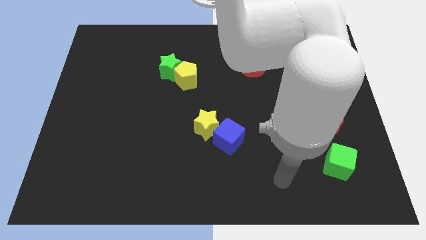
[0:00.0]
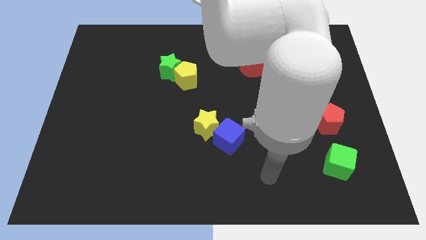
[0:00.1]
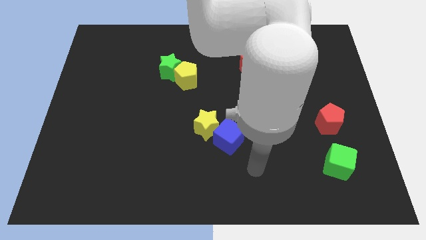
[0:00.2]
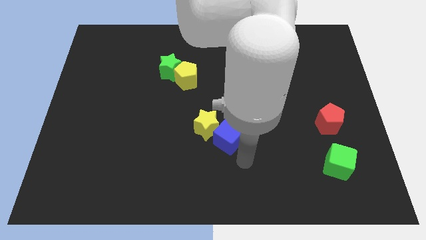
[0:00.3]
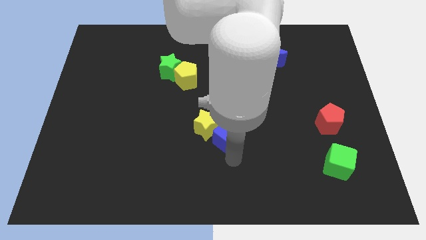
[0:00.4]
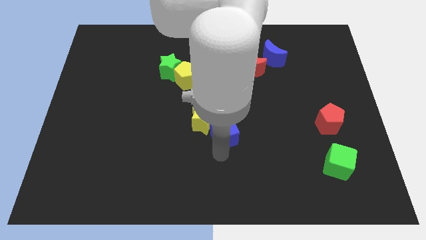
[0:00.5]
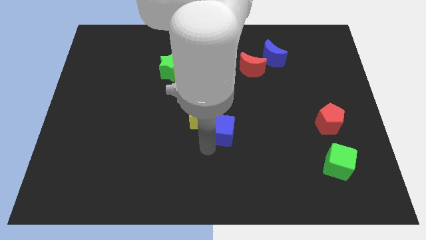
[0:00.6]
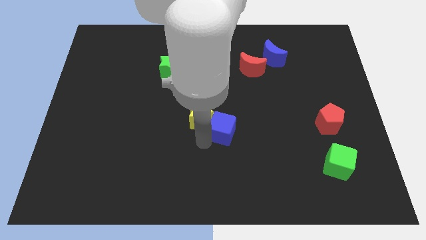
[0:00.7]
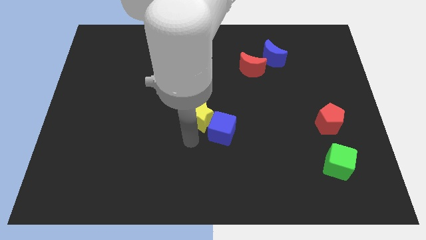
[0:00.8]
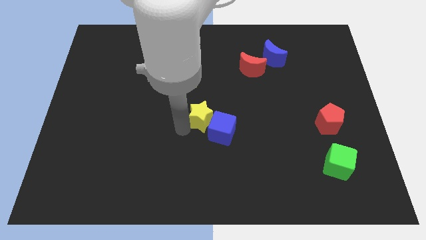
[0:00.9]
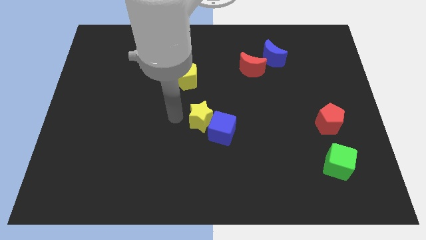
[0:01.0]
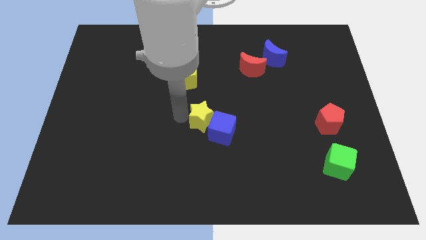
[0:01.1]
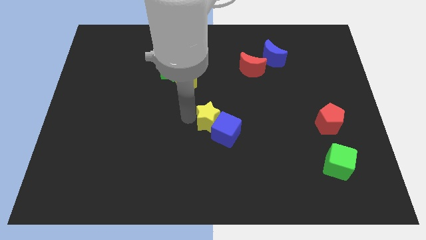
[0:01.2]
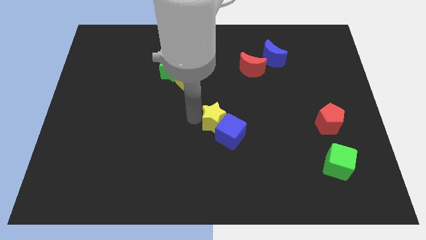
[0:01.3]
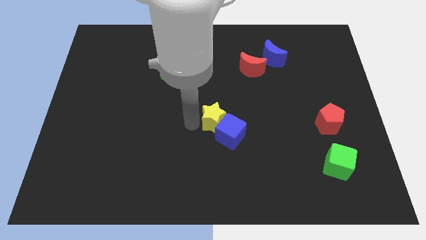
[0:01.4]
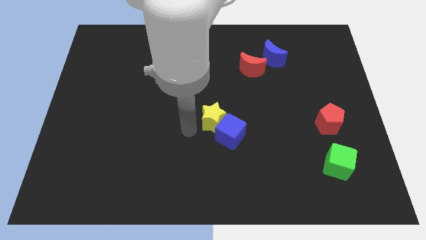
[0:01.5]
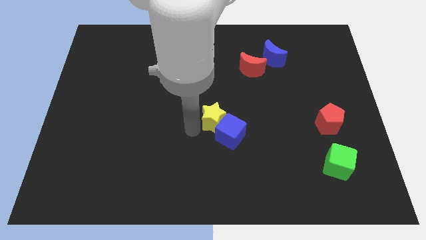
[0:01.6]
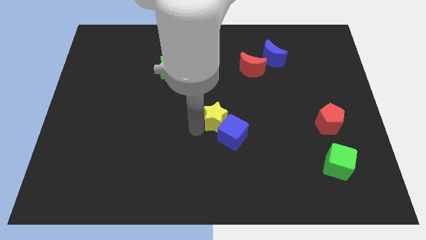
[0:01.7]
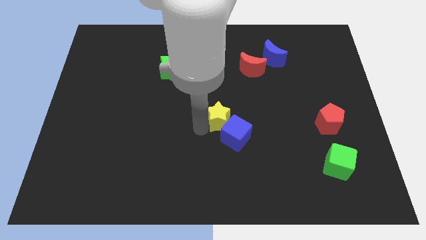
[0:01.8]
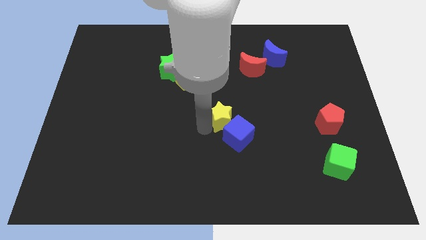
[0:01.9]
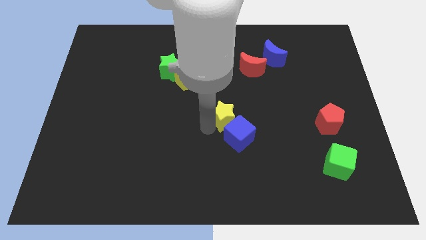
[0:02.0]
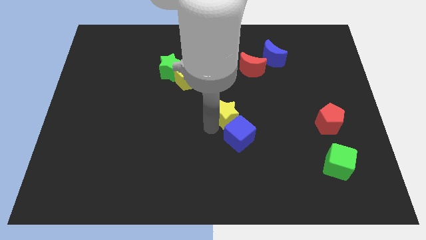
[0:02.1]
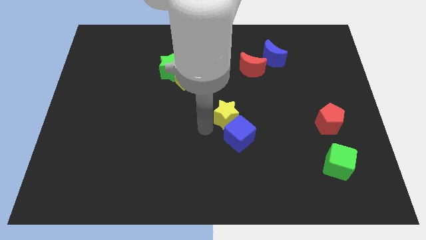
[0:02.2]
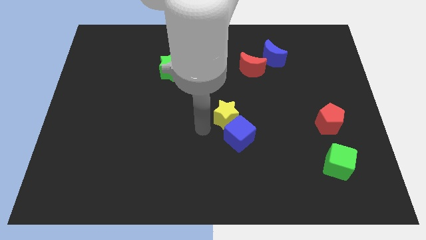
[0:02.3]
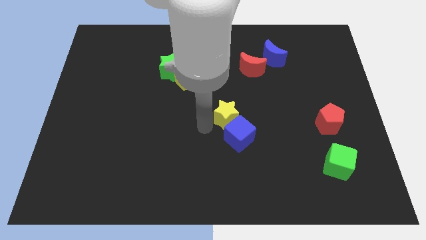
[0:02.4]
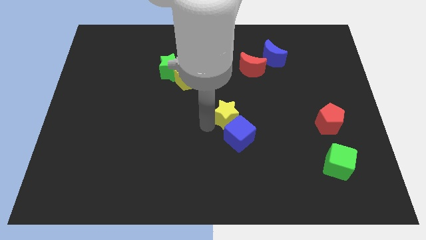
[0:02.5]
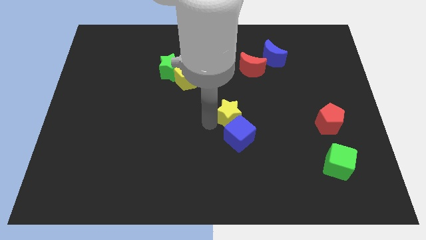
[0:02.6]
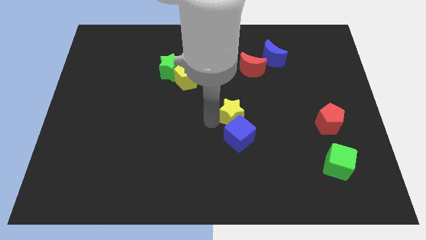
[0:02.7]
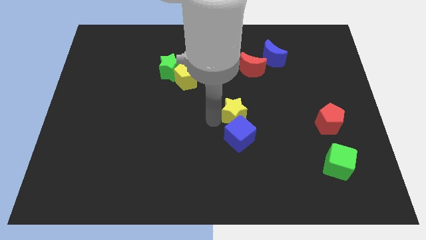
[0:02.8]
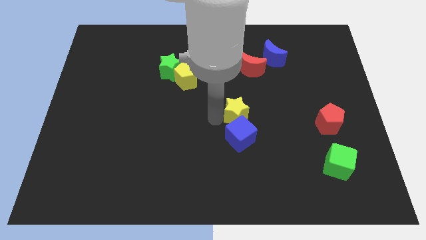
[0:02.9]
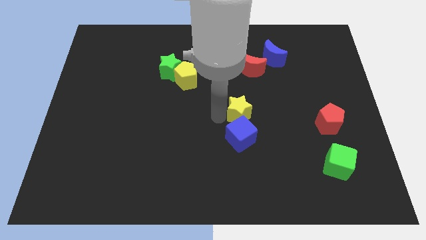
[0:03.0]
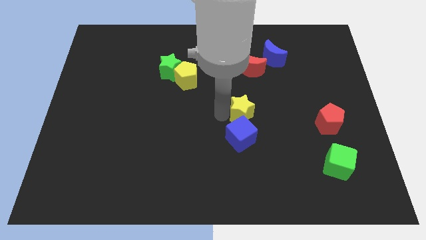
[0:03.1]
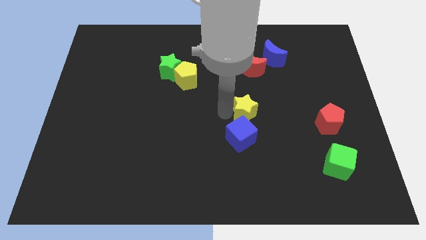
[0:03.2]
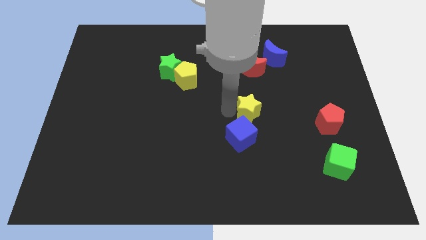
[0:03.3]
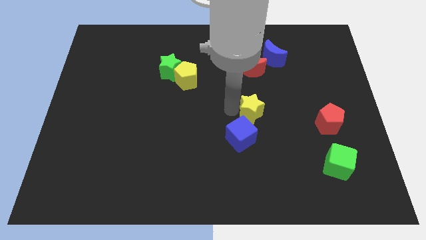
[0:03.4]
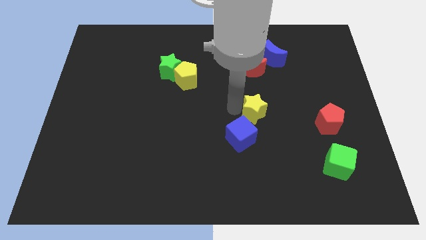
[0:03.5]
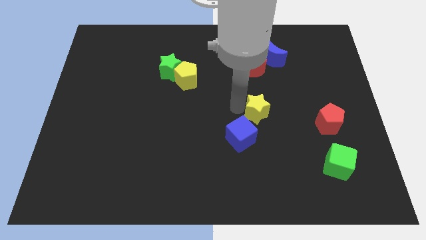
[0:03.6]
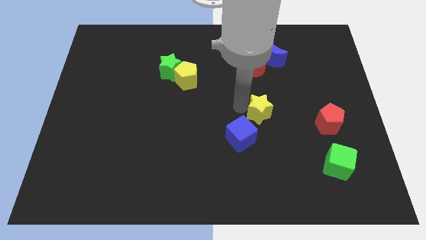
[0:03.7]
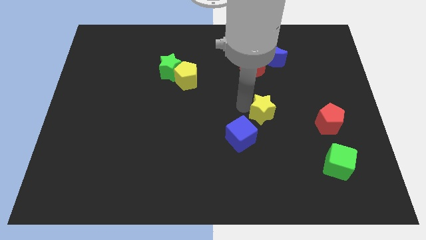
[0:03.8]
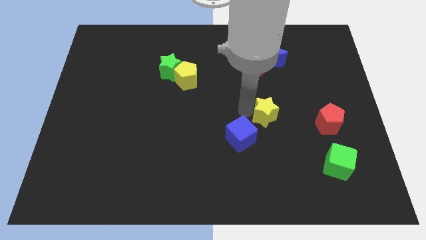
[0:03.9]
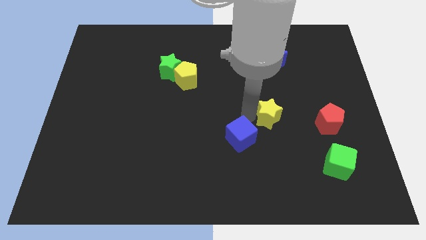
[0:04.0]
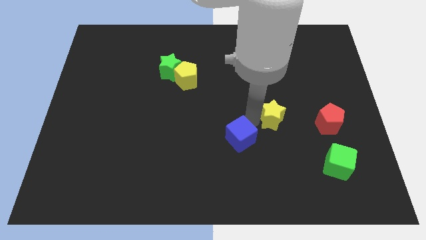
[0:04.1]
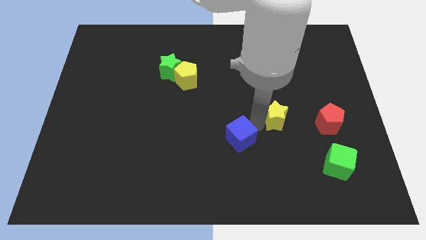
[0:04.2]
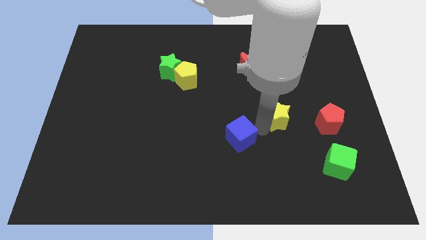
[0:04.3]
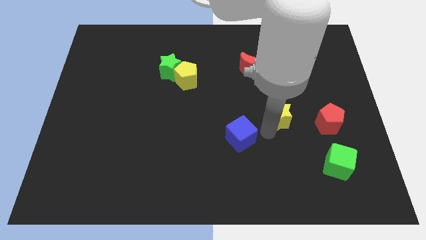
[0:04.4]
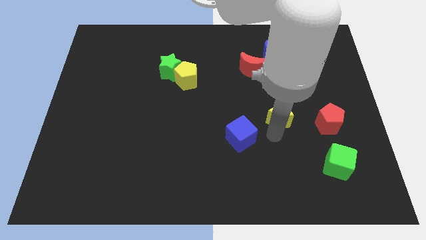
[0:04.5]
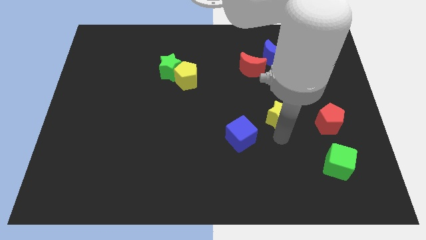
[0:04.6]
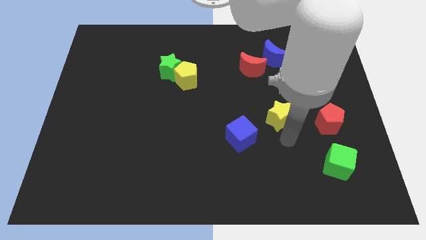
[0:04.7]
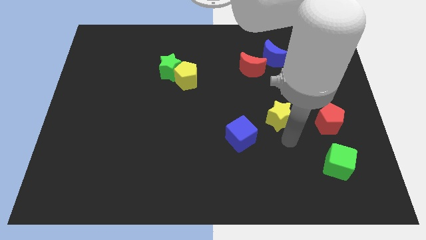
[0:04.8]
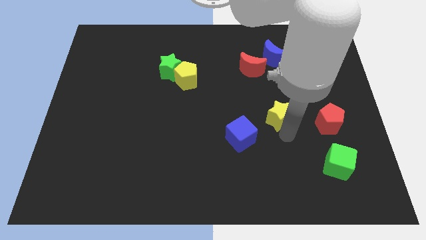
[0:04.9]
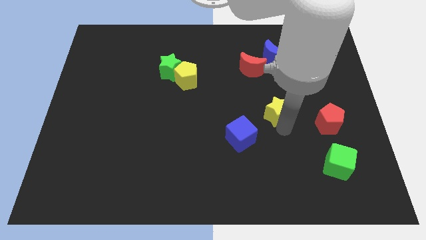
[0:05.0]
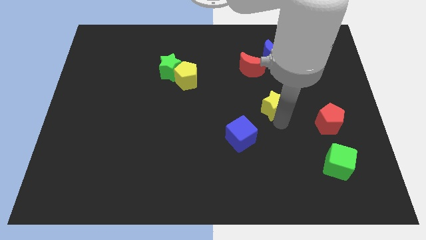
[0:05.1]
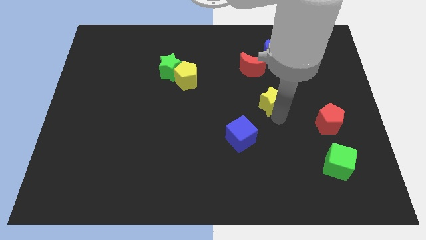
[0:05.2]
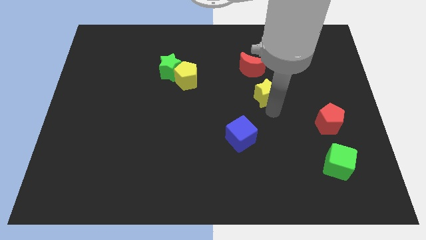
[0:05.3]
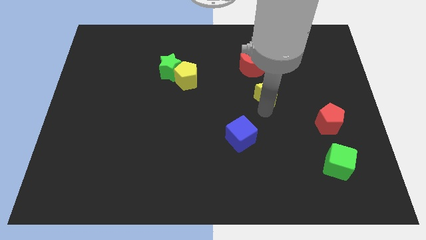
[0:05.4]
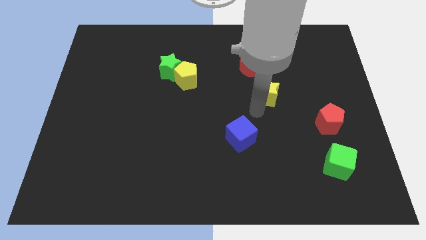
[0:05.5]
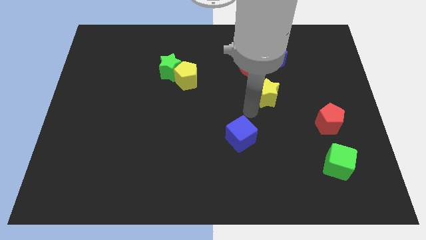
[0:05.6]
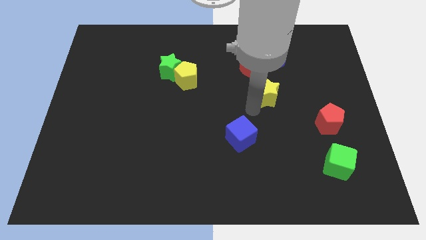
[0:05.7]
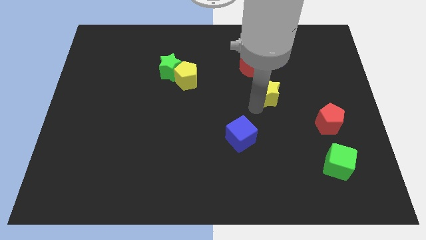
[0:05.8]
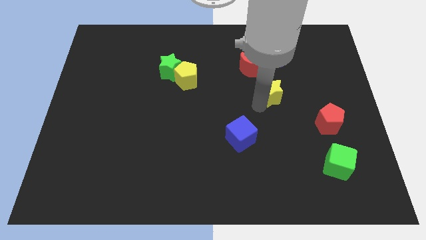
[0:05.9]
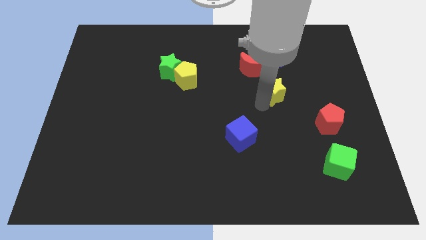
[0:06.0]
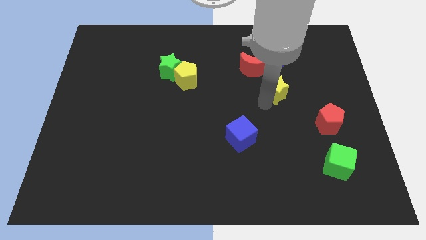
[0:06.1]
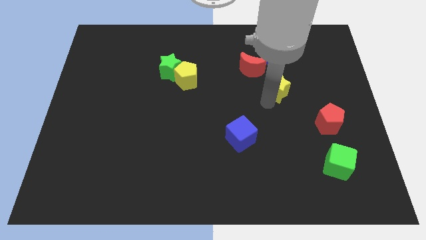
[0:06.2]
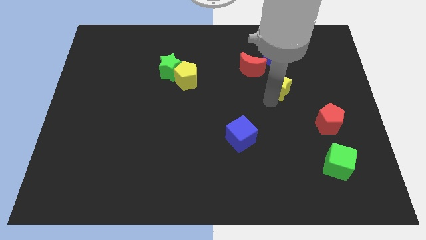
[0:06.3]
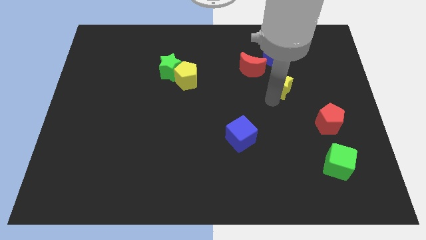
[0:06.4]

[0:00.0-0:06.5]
slide the yellow star diagonally up and right

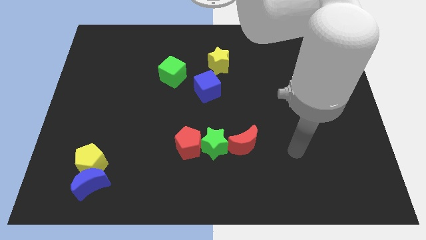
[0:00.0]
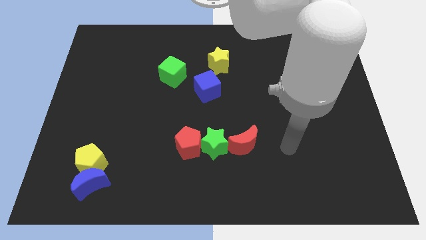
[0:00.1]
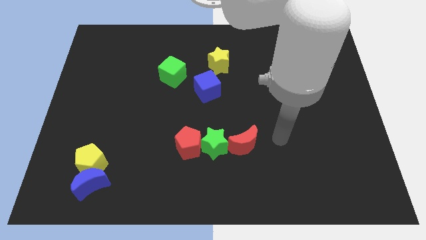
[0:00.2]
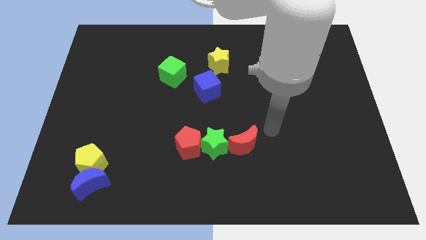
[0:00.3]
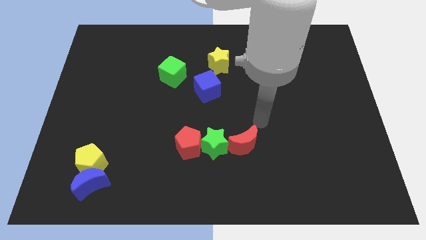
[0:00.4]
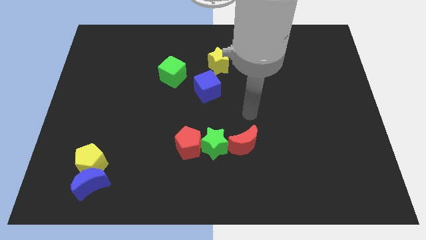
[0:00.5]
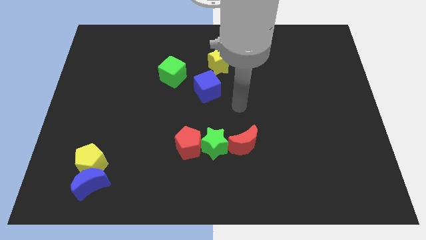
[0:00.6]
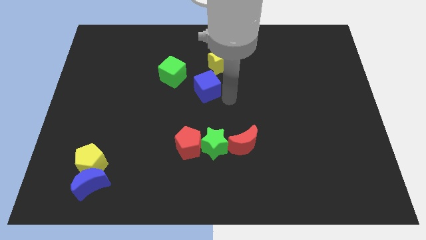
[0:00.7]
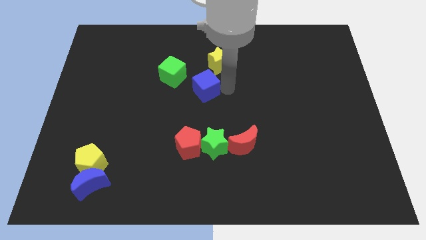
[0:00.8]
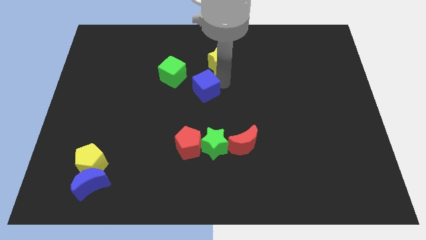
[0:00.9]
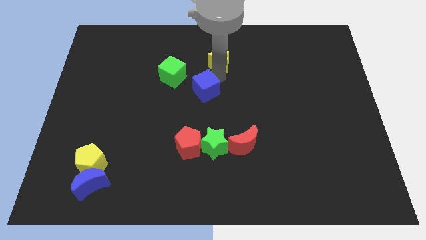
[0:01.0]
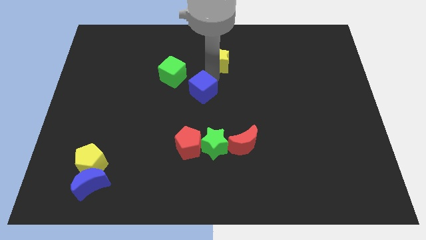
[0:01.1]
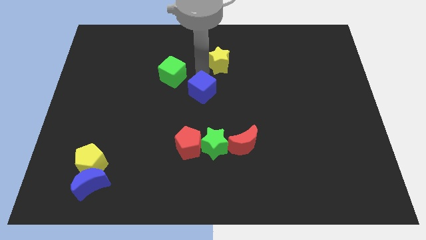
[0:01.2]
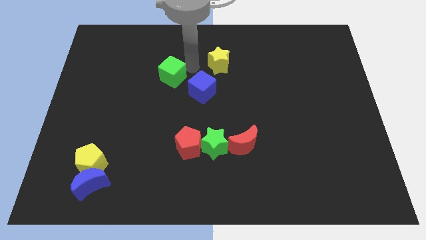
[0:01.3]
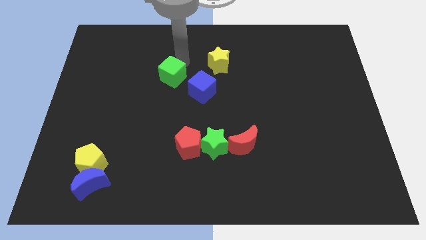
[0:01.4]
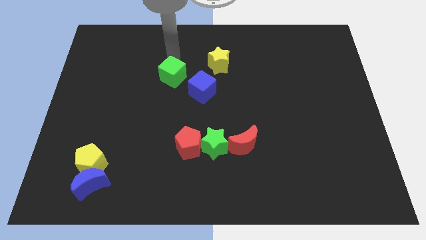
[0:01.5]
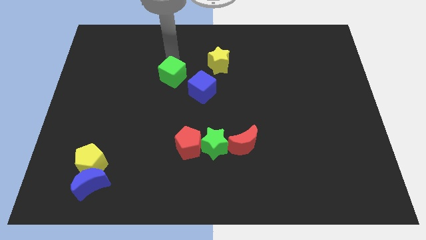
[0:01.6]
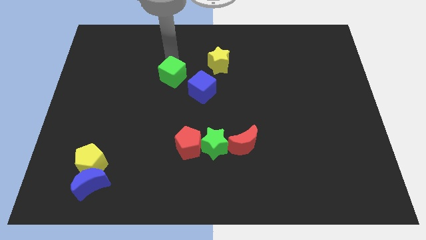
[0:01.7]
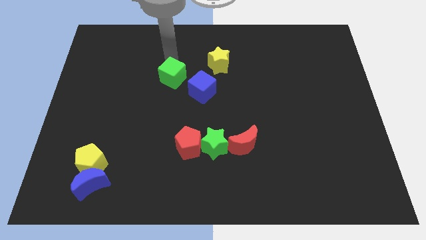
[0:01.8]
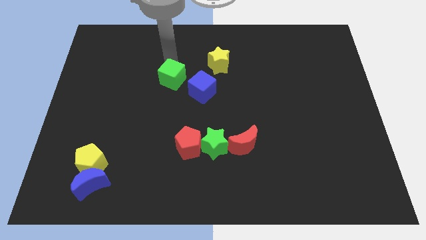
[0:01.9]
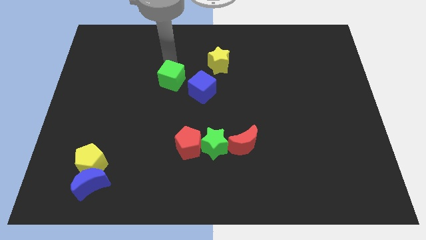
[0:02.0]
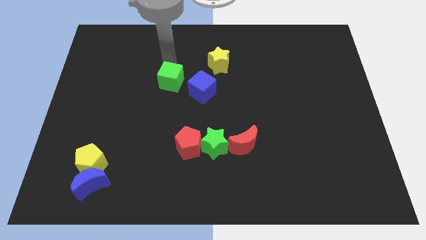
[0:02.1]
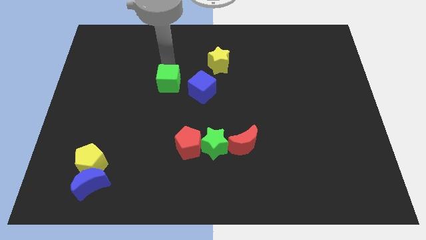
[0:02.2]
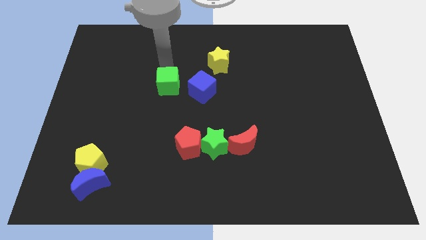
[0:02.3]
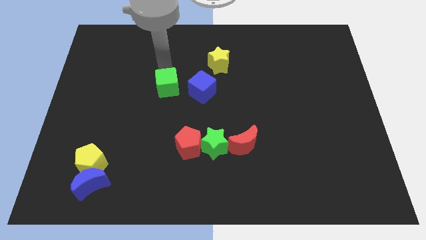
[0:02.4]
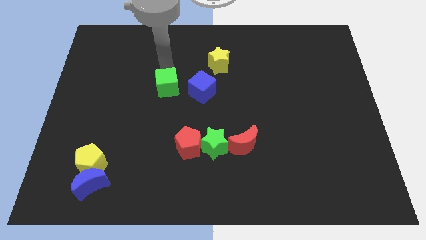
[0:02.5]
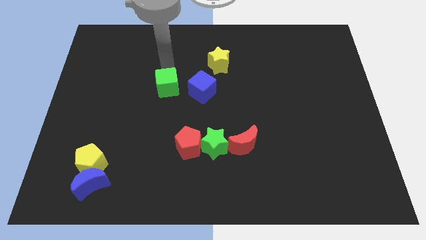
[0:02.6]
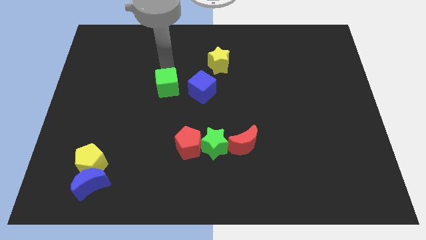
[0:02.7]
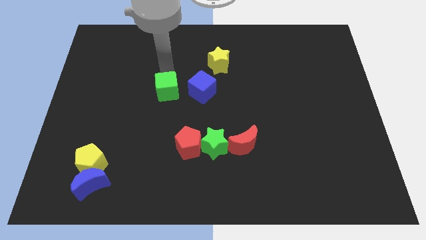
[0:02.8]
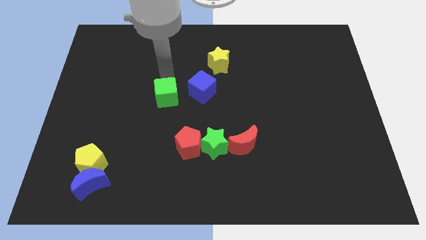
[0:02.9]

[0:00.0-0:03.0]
push the green cube downwards a little bit
